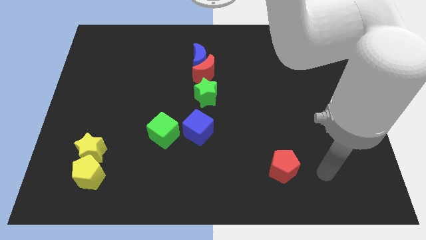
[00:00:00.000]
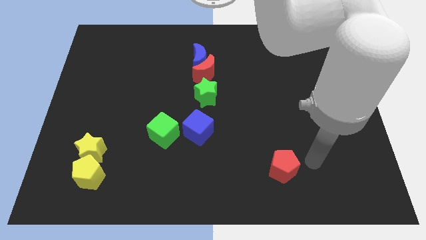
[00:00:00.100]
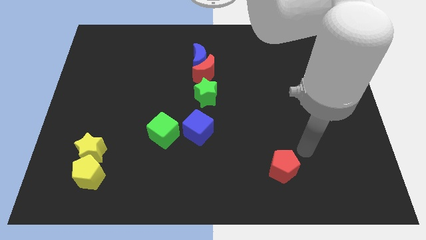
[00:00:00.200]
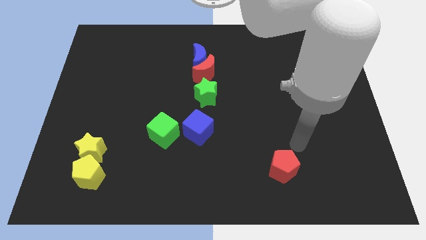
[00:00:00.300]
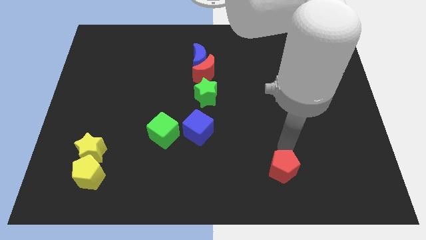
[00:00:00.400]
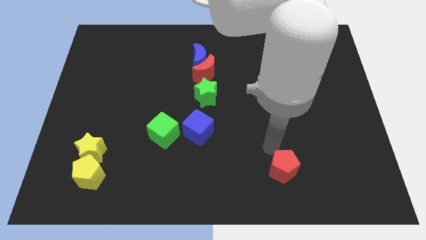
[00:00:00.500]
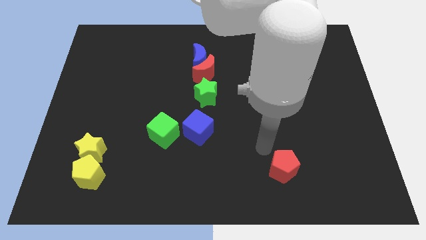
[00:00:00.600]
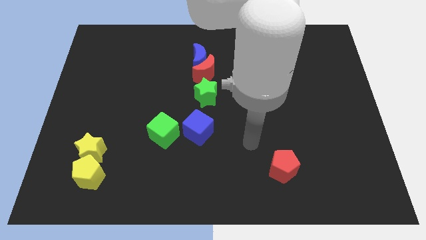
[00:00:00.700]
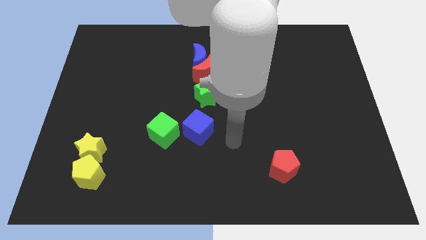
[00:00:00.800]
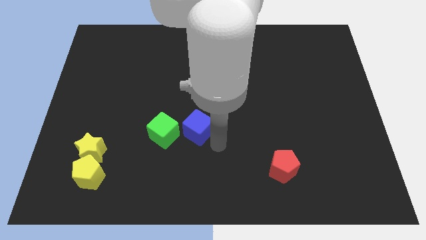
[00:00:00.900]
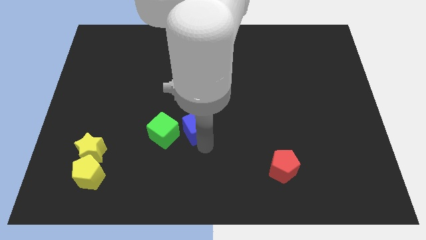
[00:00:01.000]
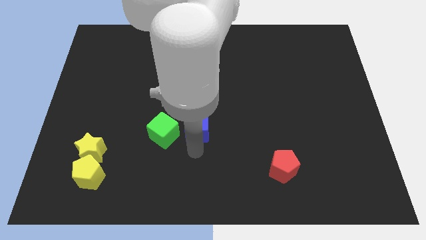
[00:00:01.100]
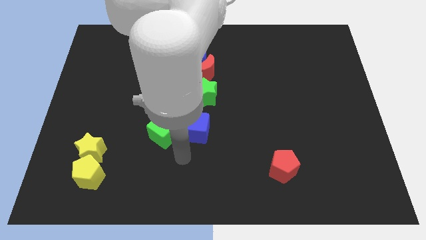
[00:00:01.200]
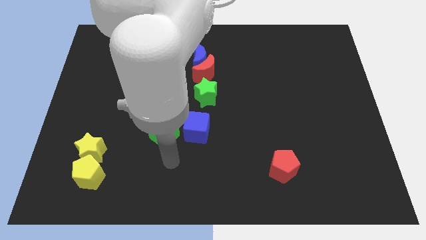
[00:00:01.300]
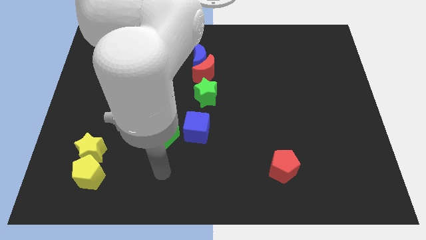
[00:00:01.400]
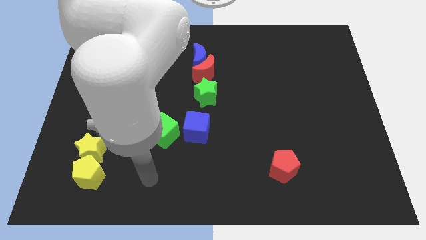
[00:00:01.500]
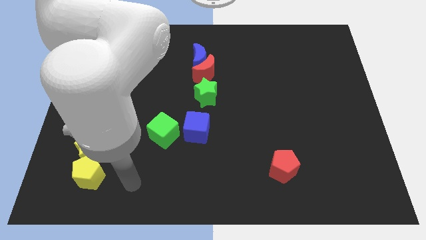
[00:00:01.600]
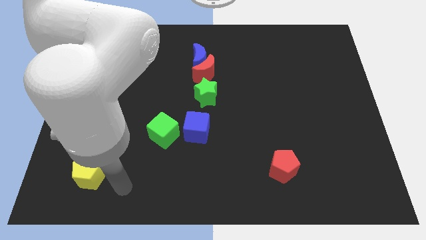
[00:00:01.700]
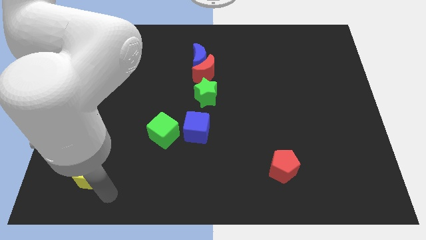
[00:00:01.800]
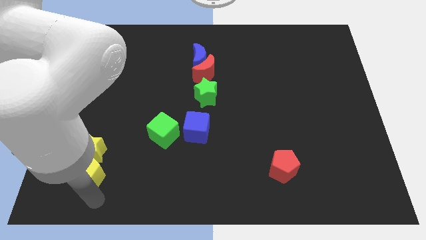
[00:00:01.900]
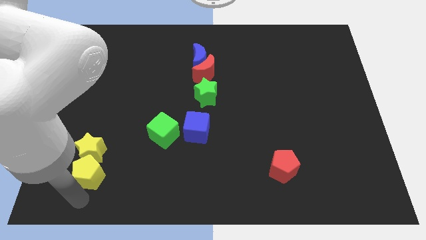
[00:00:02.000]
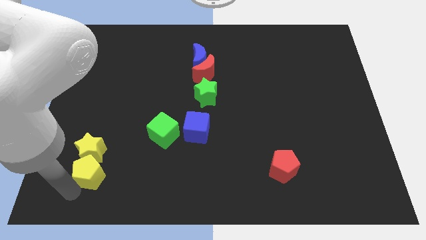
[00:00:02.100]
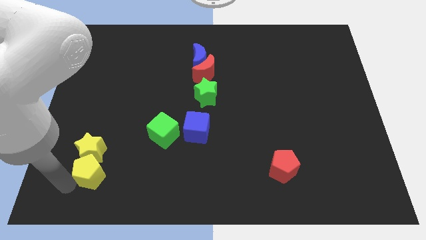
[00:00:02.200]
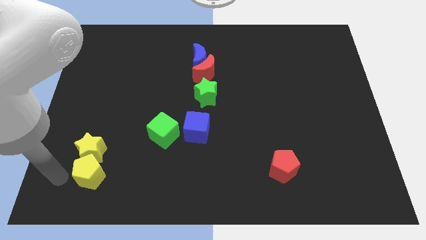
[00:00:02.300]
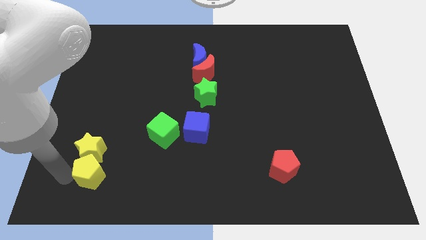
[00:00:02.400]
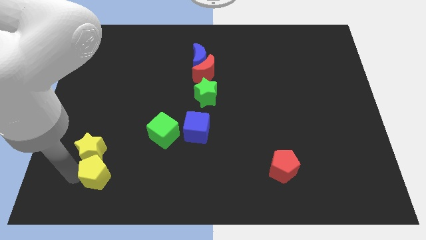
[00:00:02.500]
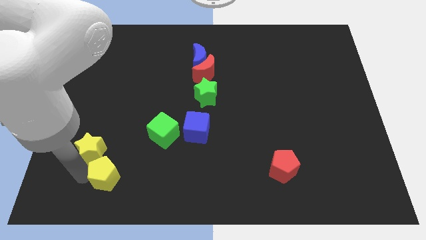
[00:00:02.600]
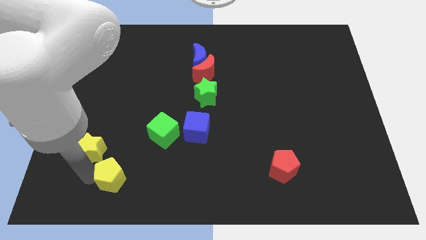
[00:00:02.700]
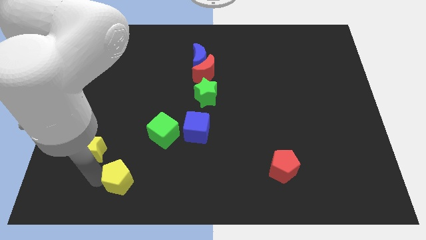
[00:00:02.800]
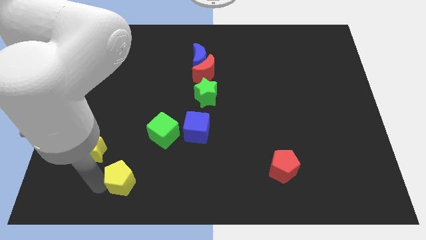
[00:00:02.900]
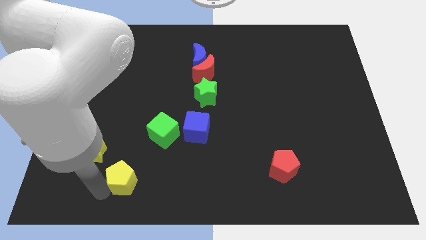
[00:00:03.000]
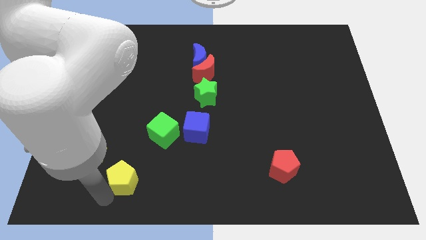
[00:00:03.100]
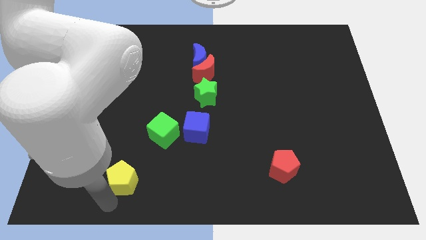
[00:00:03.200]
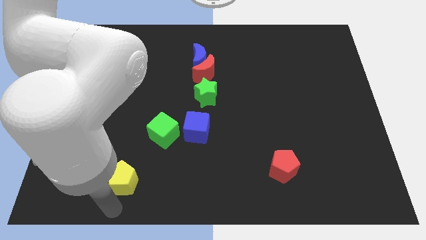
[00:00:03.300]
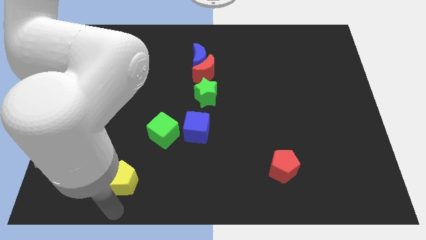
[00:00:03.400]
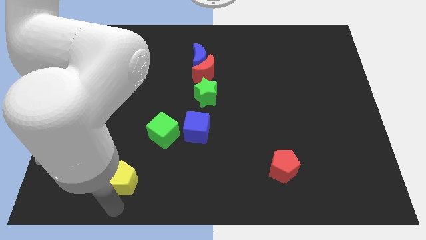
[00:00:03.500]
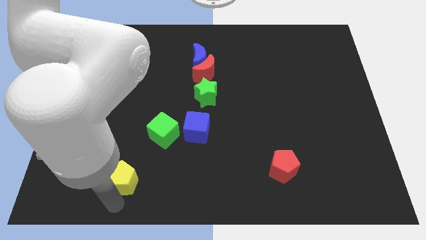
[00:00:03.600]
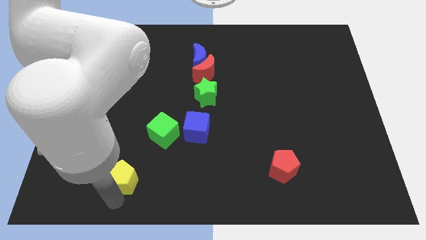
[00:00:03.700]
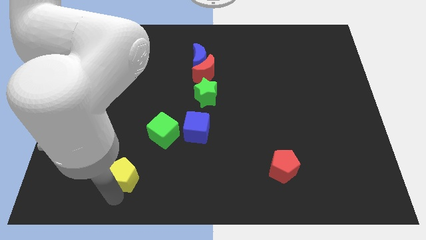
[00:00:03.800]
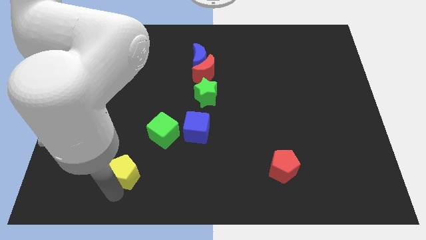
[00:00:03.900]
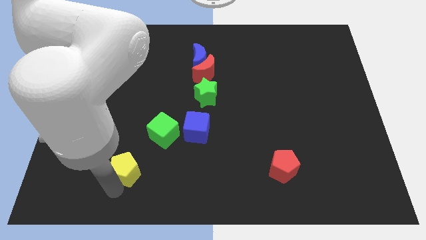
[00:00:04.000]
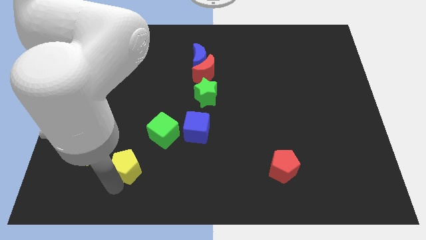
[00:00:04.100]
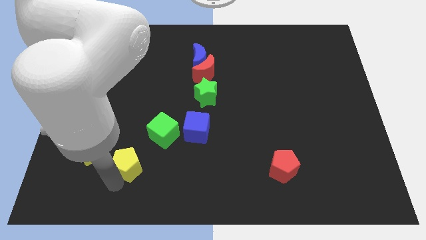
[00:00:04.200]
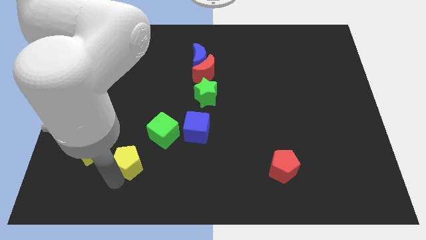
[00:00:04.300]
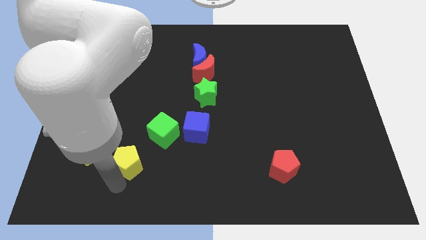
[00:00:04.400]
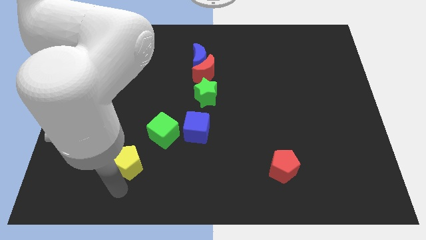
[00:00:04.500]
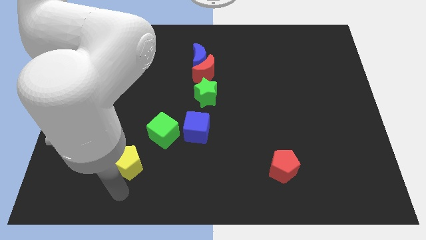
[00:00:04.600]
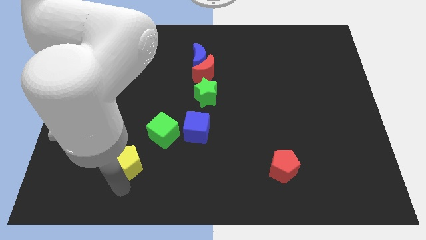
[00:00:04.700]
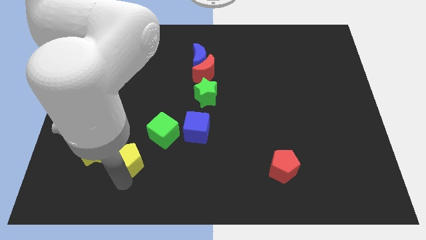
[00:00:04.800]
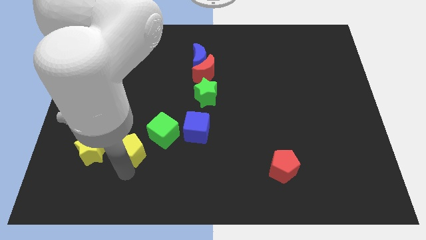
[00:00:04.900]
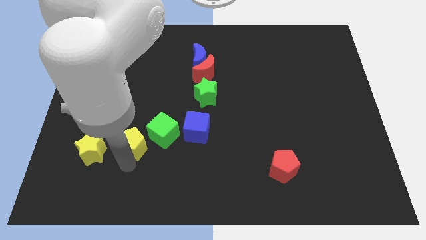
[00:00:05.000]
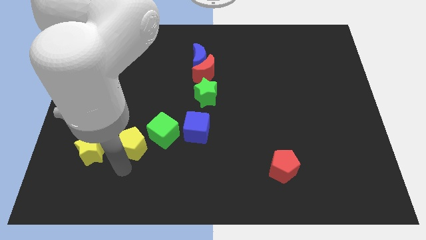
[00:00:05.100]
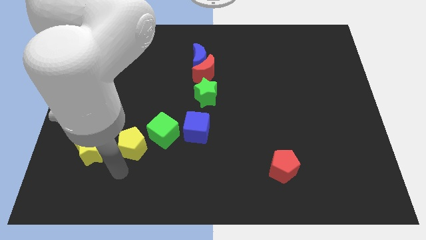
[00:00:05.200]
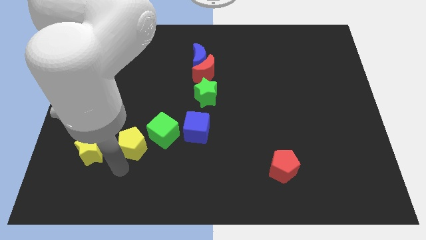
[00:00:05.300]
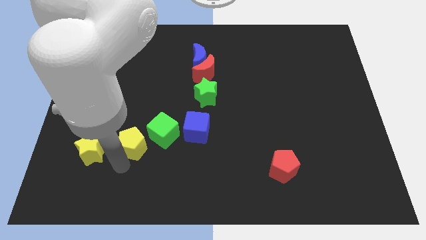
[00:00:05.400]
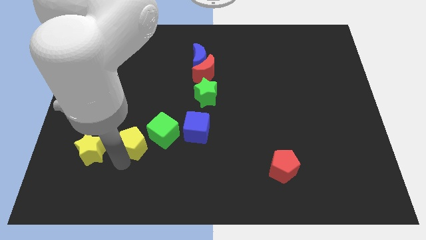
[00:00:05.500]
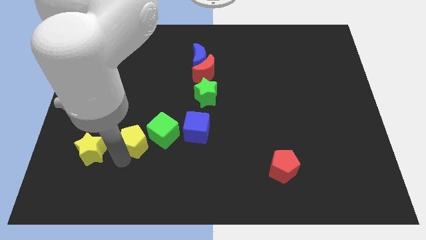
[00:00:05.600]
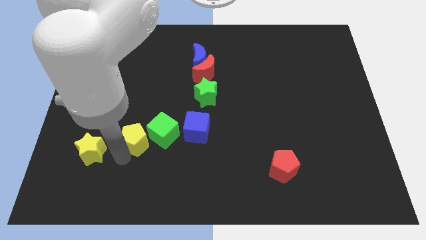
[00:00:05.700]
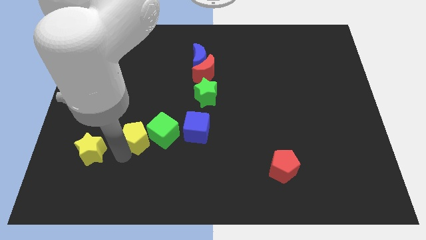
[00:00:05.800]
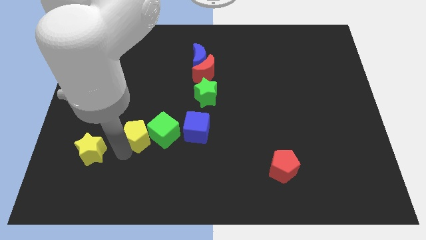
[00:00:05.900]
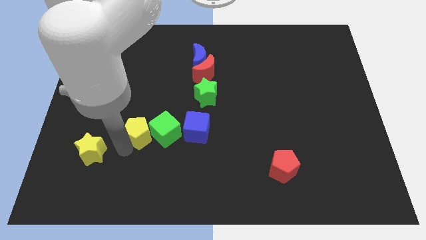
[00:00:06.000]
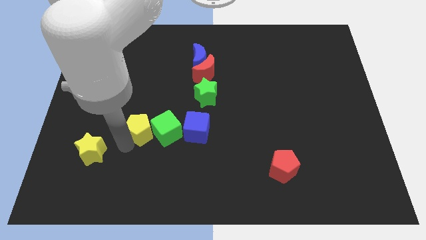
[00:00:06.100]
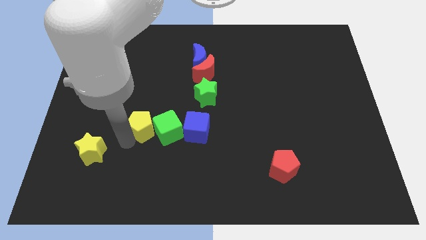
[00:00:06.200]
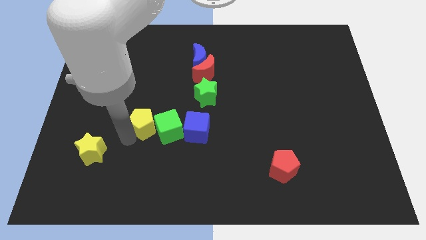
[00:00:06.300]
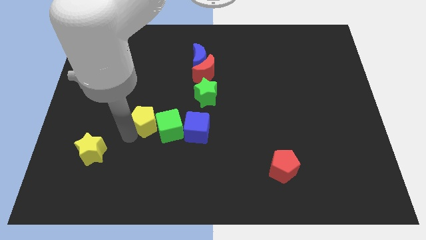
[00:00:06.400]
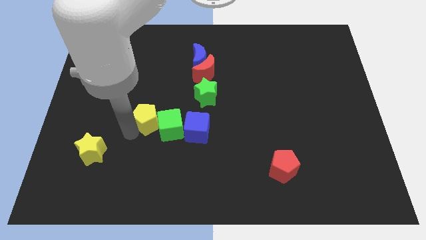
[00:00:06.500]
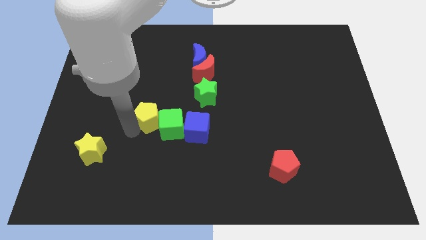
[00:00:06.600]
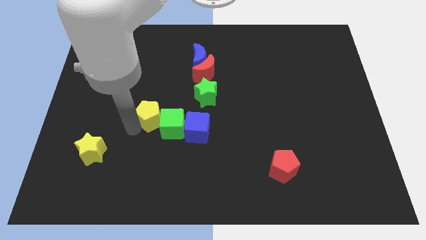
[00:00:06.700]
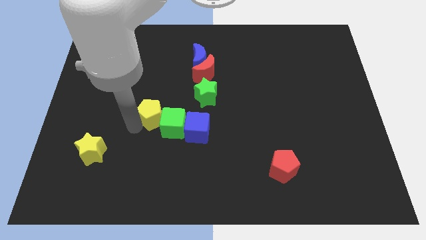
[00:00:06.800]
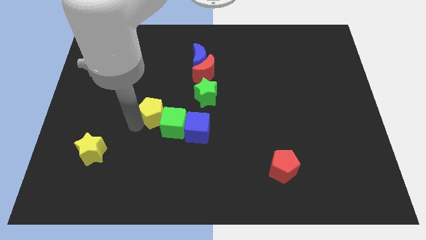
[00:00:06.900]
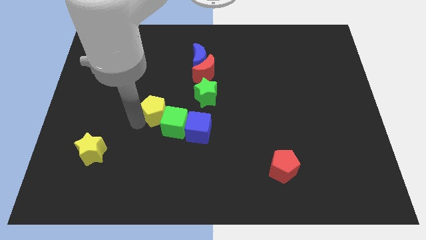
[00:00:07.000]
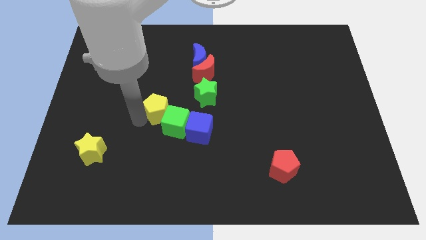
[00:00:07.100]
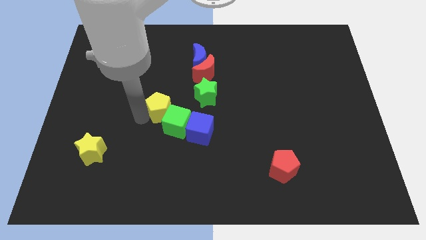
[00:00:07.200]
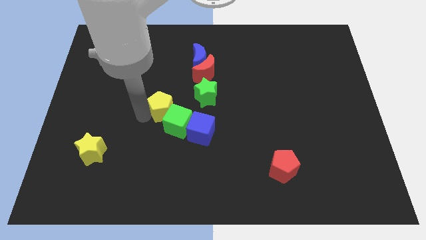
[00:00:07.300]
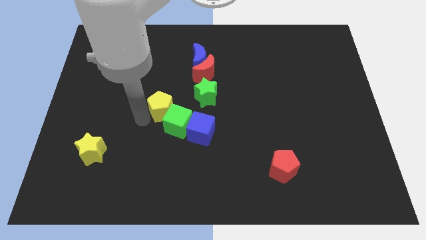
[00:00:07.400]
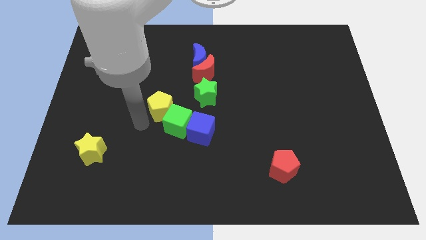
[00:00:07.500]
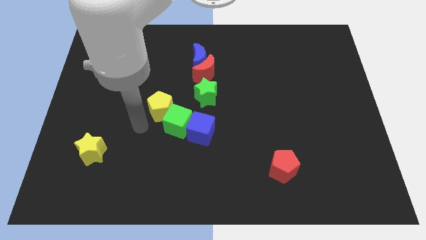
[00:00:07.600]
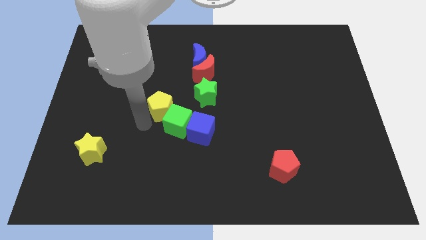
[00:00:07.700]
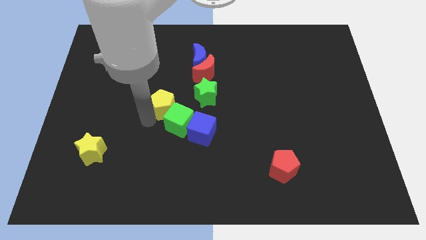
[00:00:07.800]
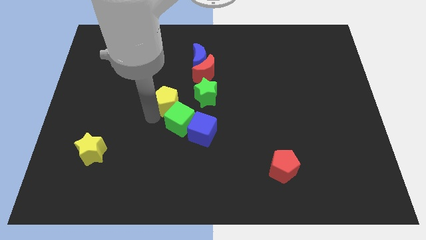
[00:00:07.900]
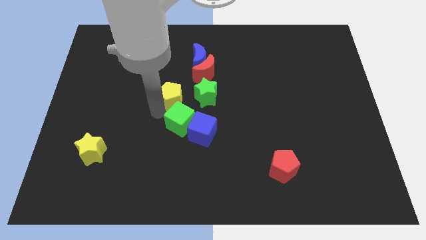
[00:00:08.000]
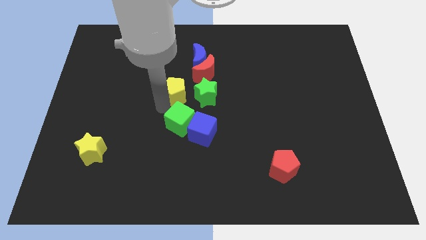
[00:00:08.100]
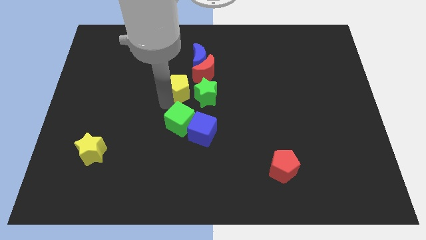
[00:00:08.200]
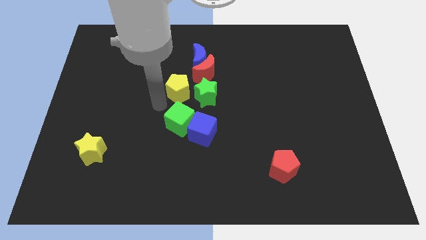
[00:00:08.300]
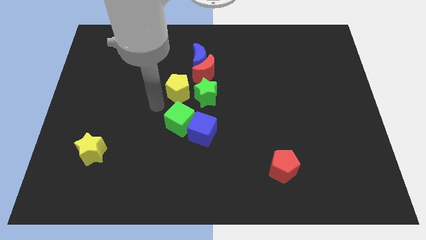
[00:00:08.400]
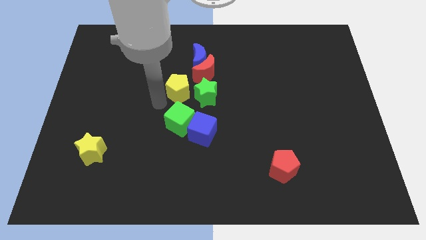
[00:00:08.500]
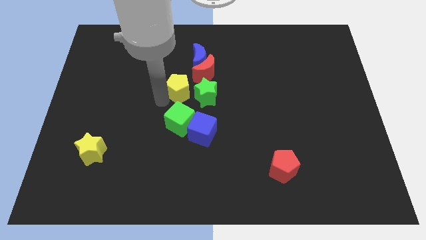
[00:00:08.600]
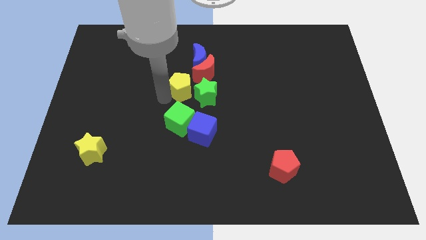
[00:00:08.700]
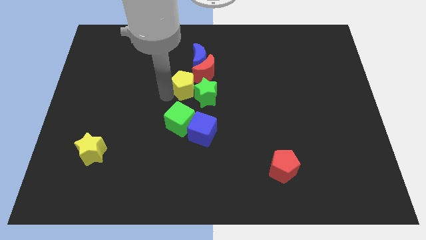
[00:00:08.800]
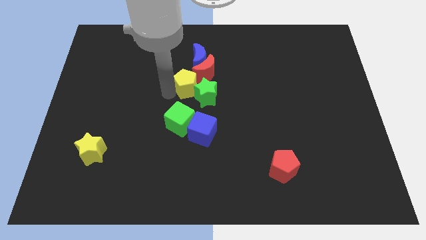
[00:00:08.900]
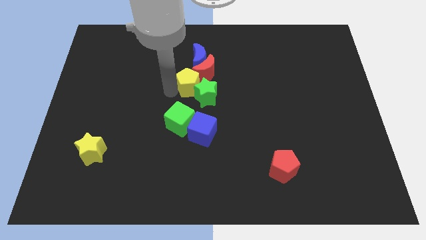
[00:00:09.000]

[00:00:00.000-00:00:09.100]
slide the yellow pentagon close to the red moon
